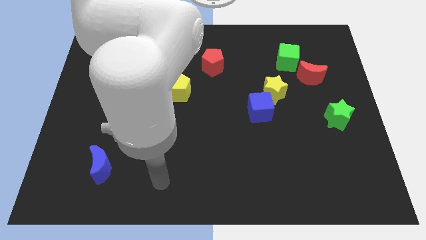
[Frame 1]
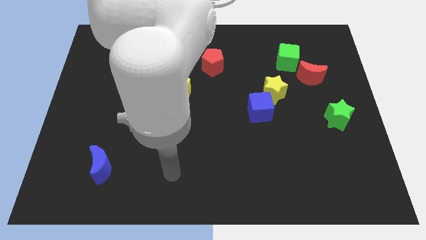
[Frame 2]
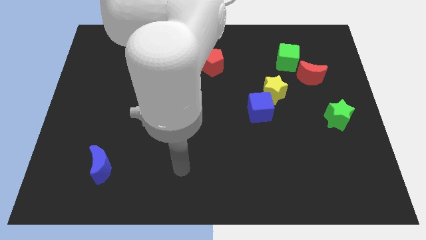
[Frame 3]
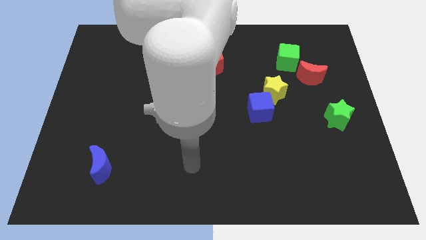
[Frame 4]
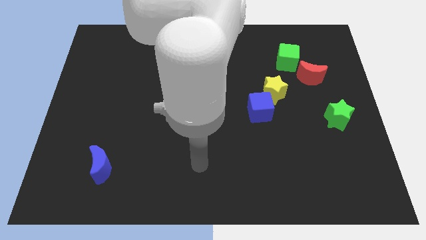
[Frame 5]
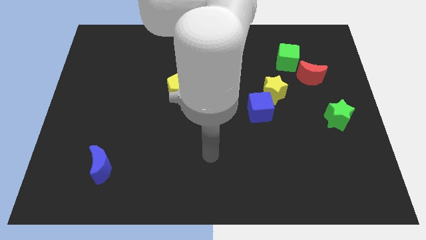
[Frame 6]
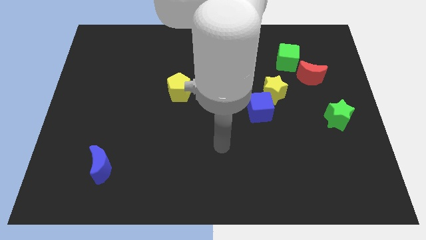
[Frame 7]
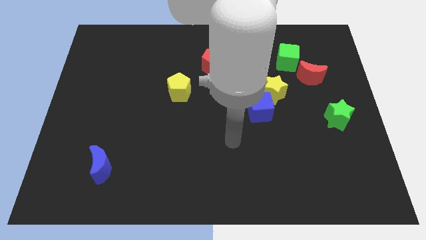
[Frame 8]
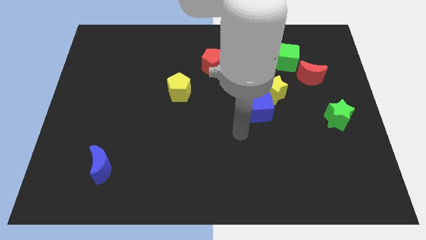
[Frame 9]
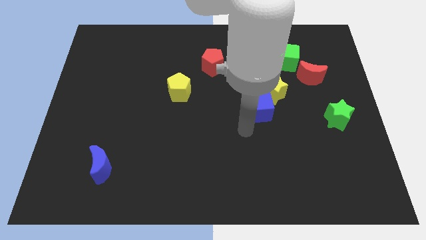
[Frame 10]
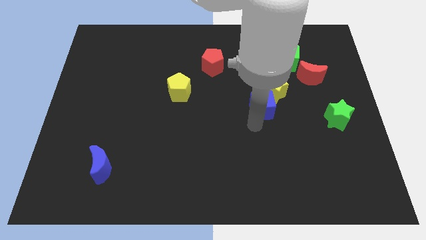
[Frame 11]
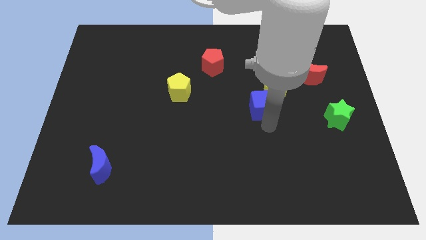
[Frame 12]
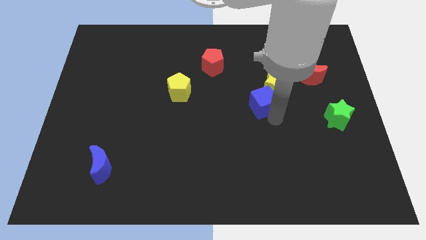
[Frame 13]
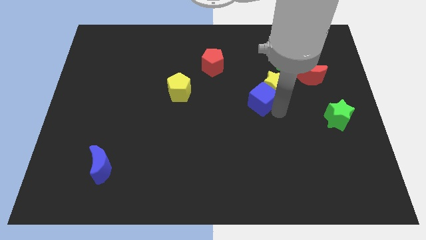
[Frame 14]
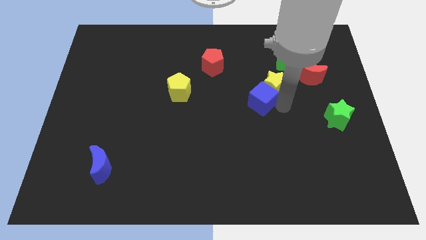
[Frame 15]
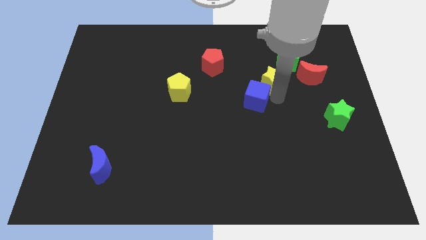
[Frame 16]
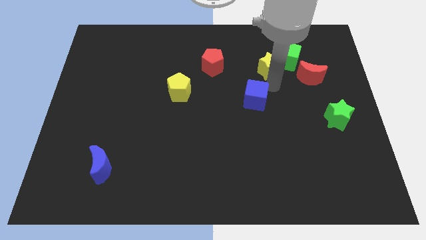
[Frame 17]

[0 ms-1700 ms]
pull the blue cube apart from the yellow star

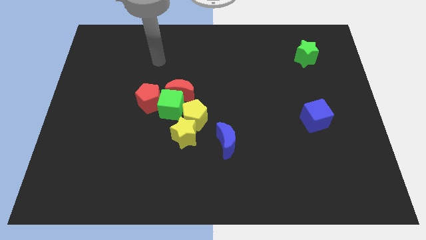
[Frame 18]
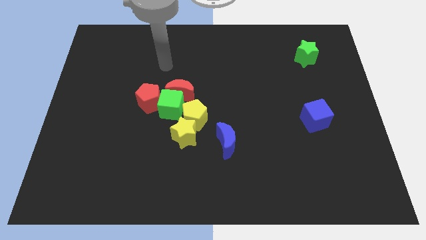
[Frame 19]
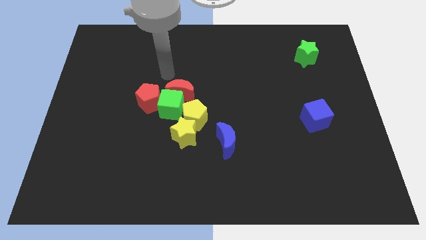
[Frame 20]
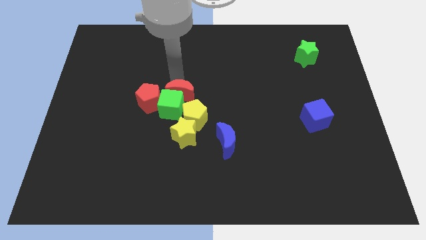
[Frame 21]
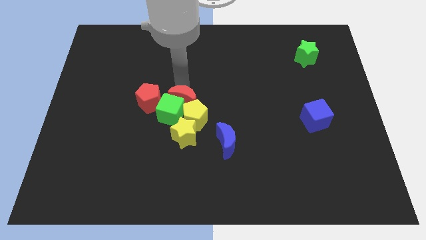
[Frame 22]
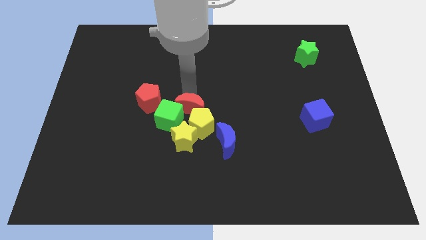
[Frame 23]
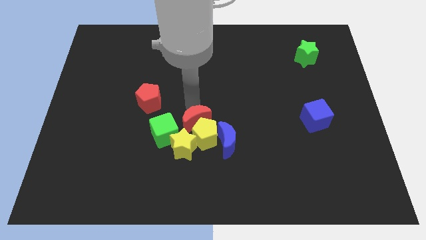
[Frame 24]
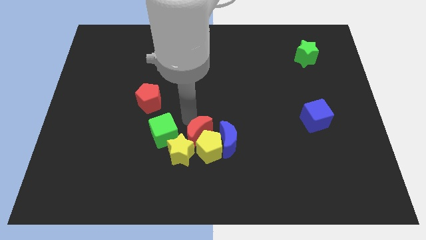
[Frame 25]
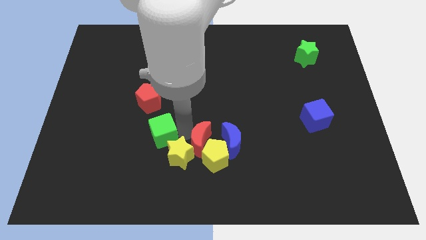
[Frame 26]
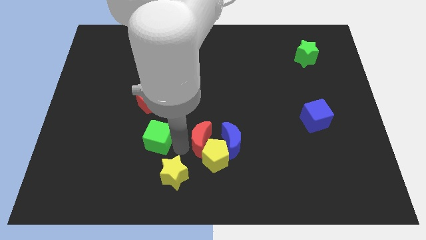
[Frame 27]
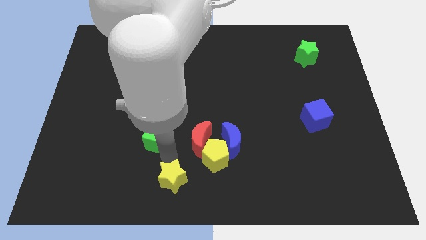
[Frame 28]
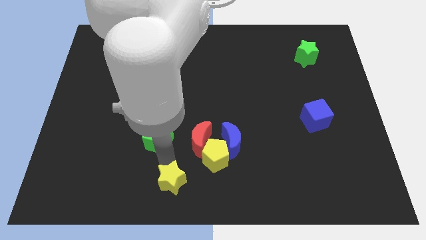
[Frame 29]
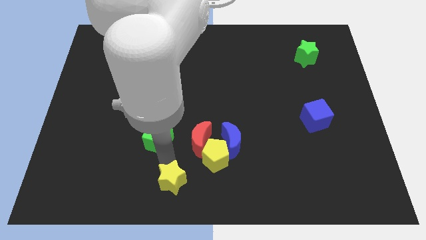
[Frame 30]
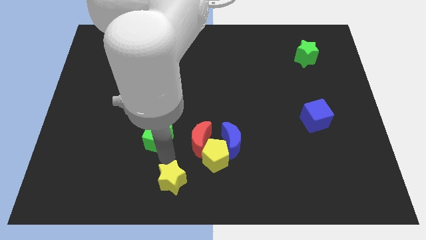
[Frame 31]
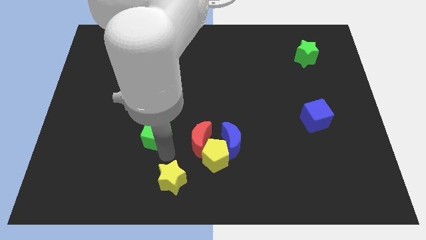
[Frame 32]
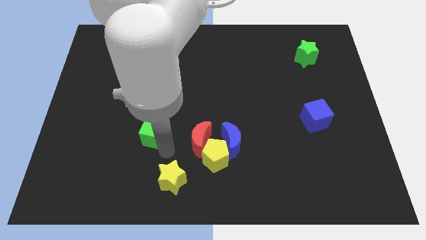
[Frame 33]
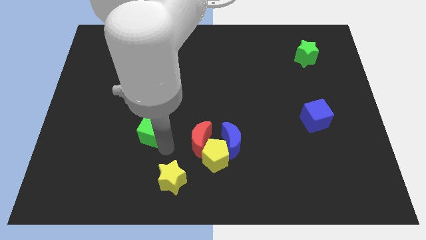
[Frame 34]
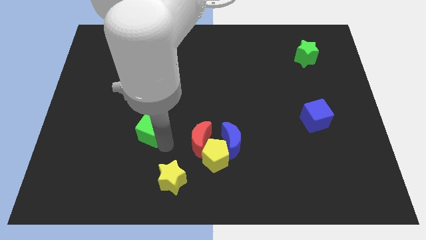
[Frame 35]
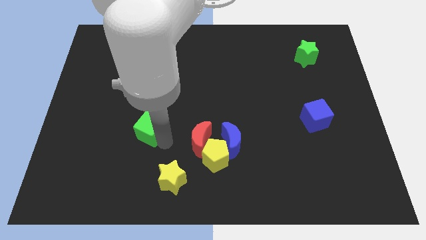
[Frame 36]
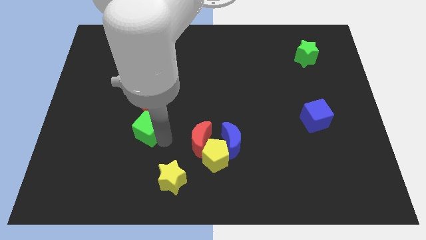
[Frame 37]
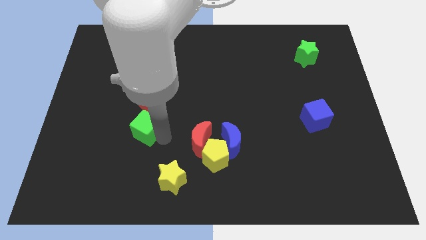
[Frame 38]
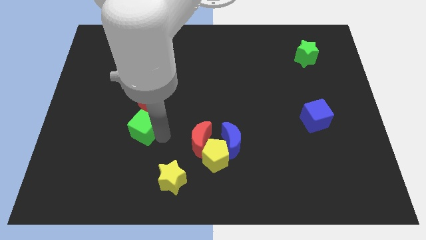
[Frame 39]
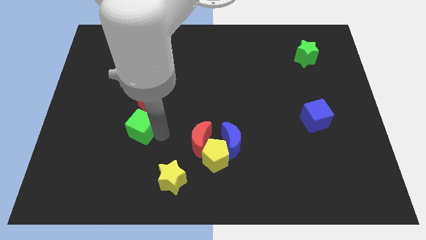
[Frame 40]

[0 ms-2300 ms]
move the green cube away from the group of blocks

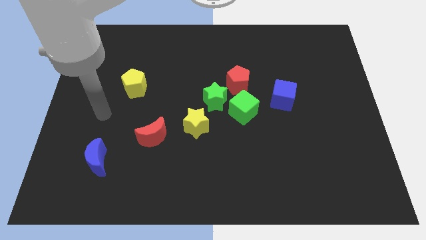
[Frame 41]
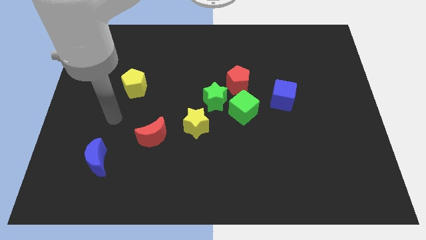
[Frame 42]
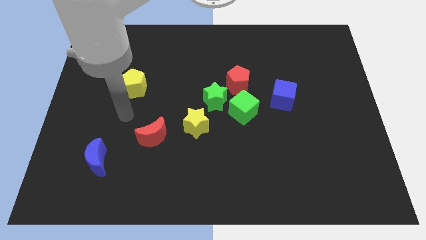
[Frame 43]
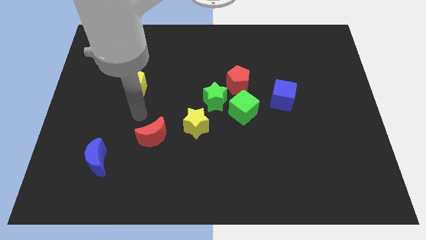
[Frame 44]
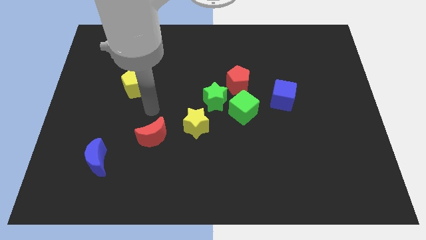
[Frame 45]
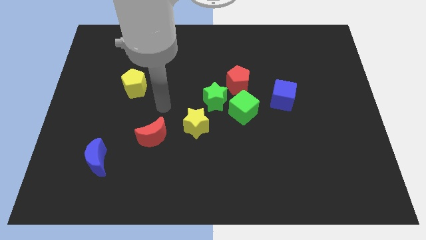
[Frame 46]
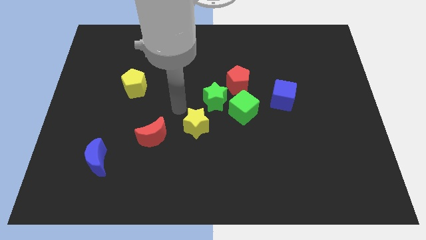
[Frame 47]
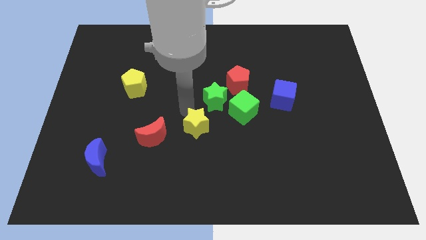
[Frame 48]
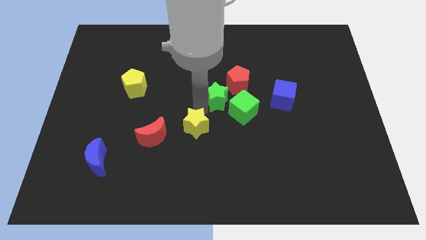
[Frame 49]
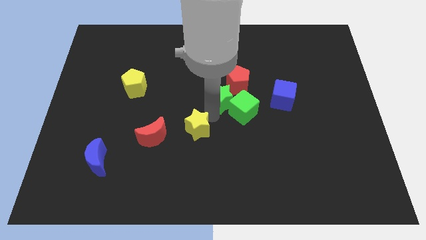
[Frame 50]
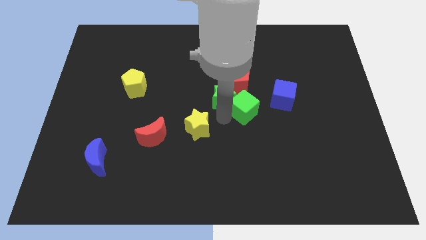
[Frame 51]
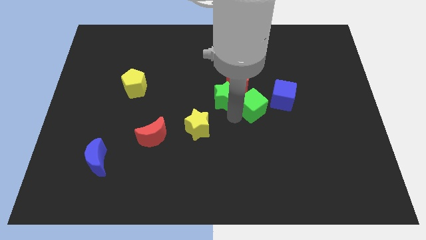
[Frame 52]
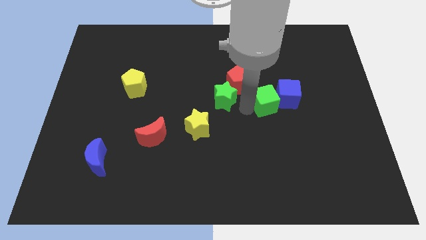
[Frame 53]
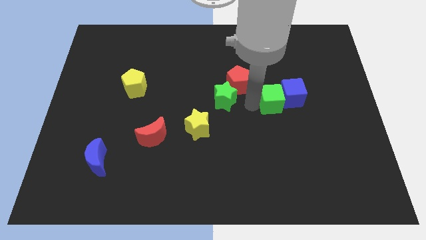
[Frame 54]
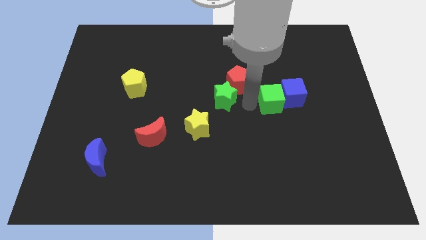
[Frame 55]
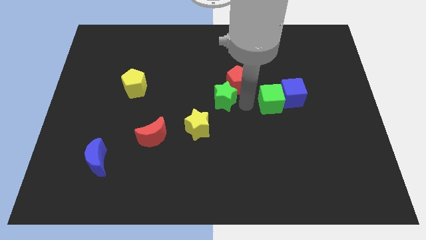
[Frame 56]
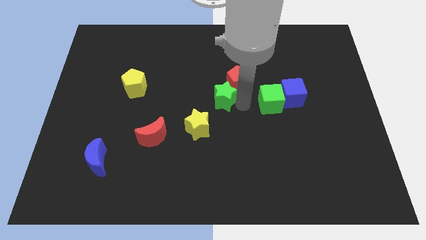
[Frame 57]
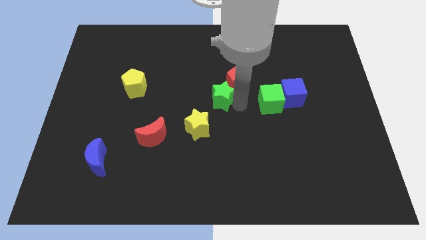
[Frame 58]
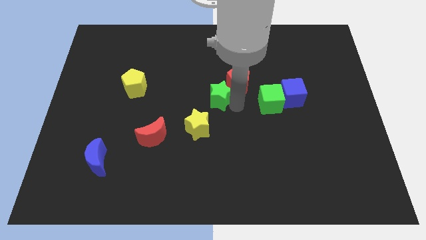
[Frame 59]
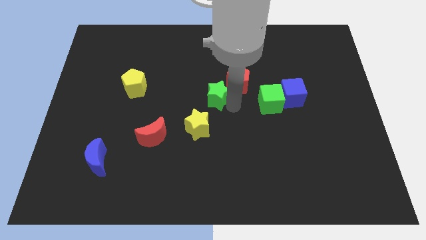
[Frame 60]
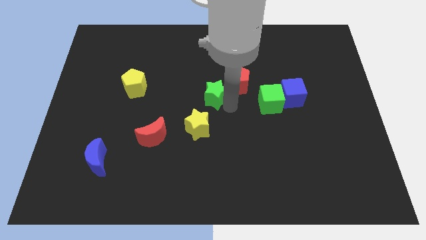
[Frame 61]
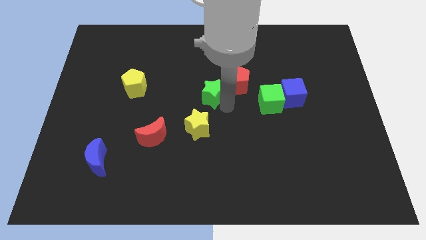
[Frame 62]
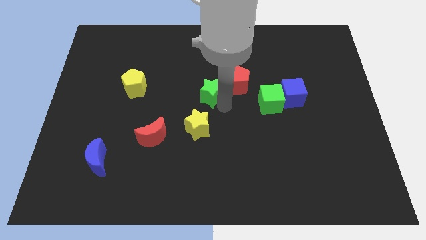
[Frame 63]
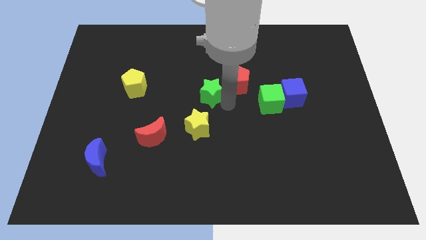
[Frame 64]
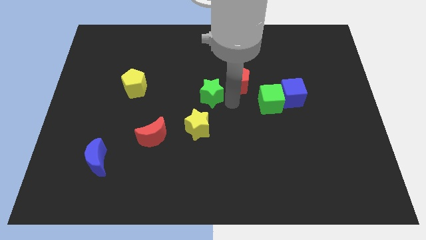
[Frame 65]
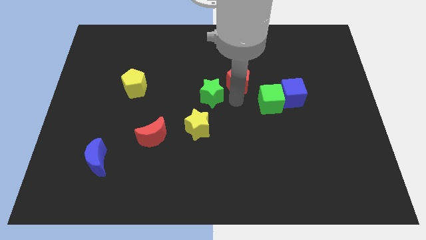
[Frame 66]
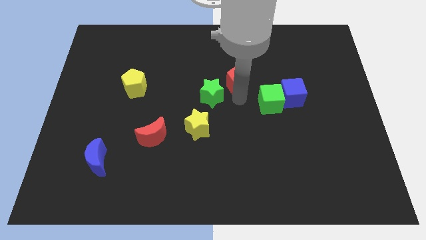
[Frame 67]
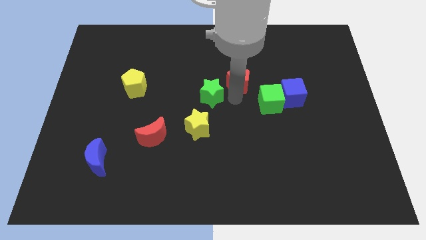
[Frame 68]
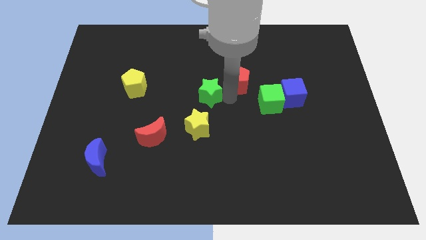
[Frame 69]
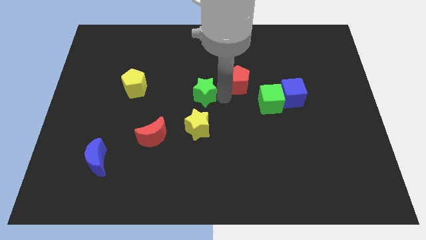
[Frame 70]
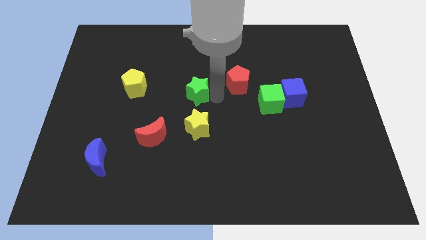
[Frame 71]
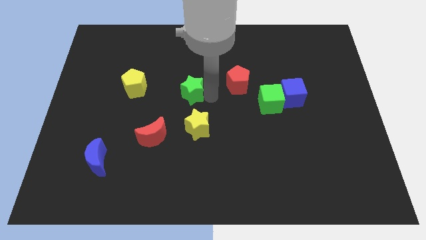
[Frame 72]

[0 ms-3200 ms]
pull the green star apart from the green cube, red pentagon, and yellow star

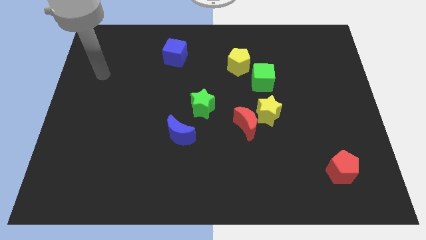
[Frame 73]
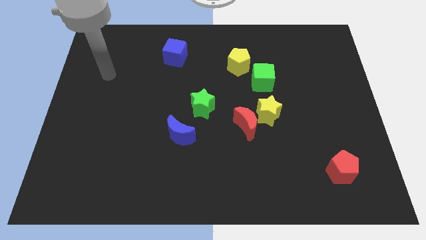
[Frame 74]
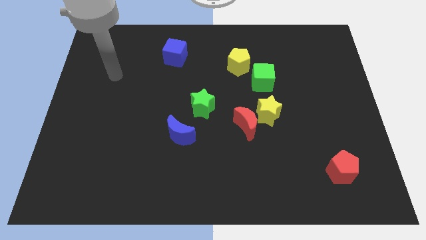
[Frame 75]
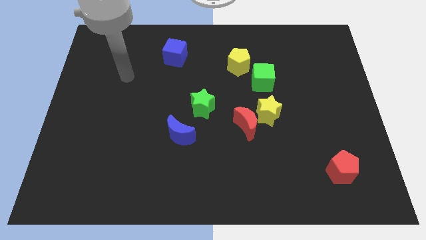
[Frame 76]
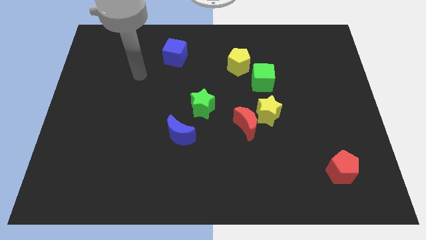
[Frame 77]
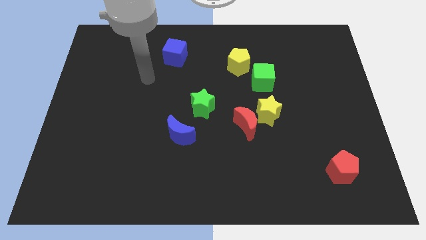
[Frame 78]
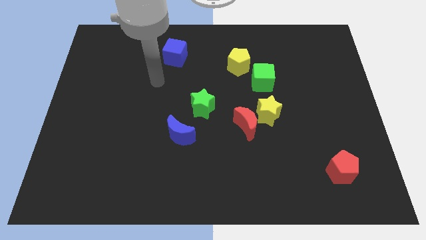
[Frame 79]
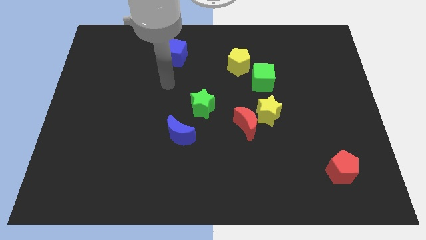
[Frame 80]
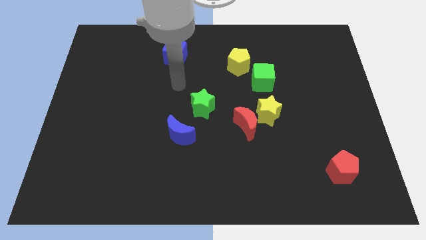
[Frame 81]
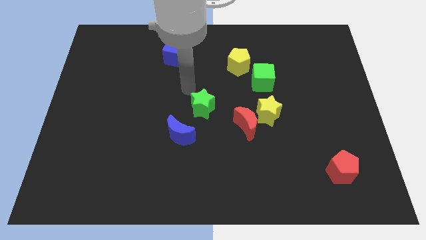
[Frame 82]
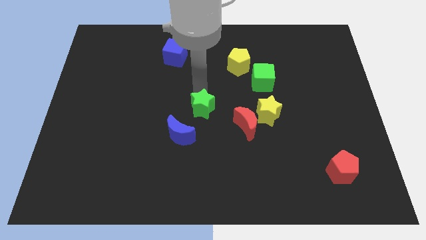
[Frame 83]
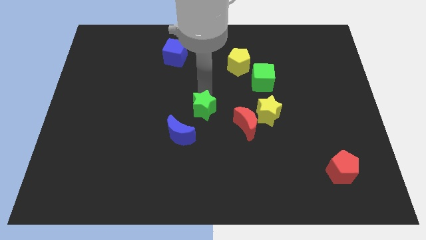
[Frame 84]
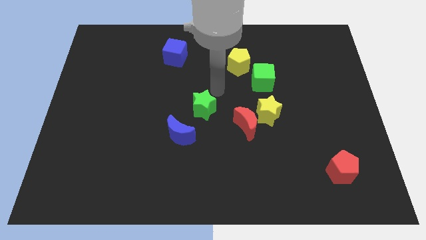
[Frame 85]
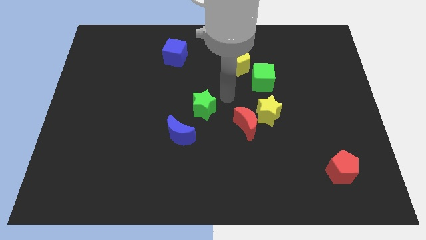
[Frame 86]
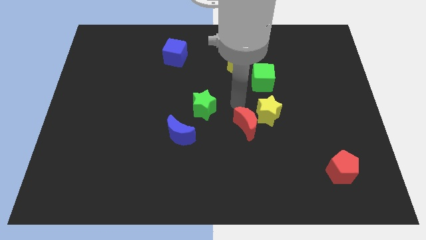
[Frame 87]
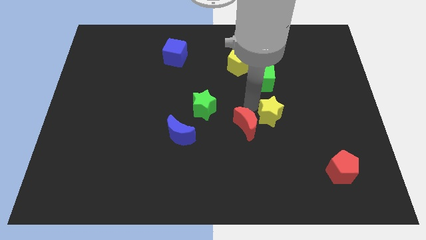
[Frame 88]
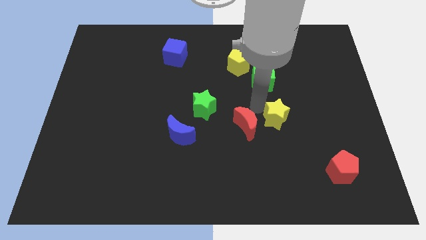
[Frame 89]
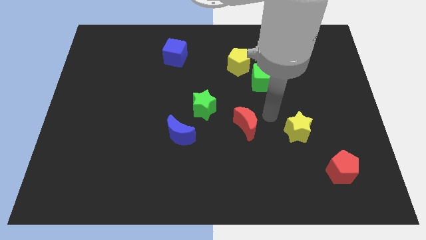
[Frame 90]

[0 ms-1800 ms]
separate the red moon from the yellow star

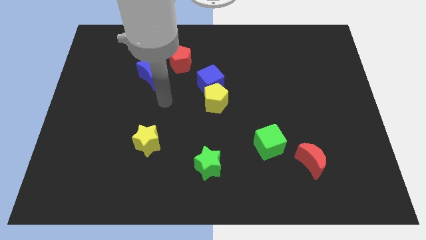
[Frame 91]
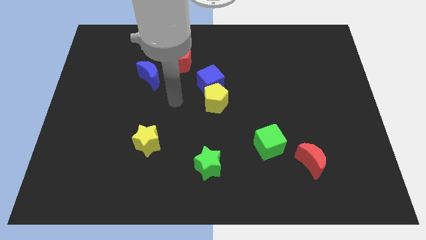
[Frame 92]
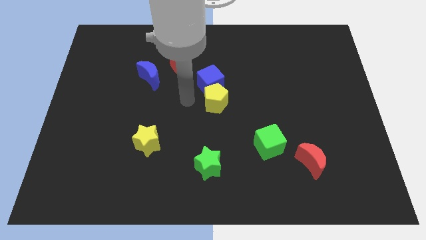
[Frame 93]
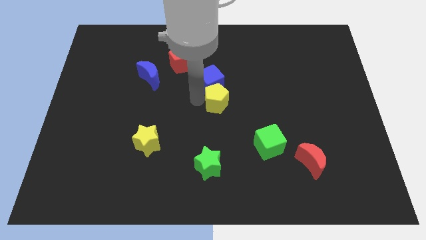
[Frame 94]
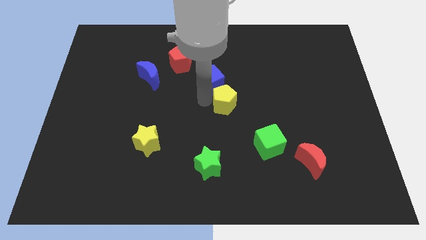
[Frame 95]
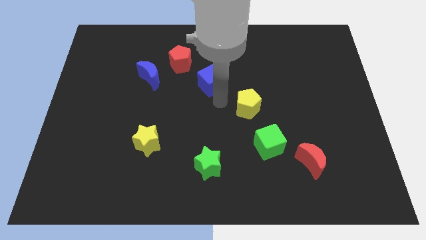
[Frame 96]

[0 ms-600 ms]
move the blue cube away from the yellow pentagon
